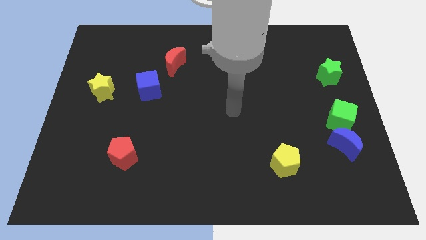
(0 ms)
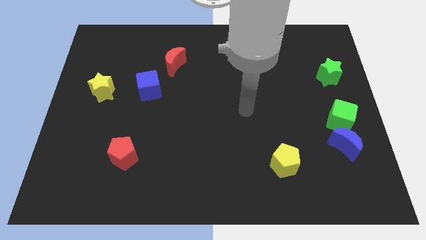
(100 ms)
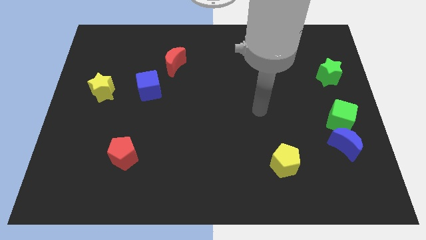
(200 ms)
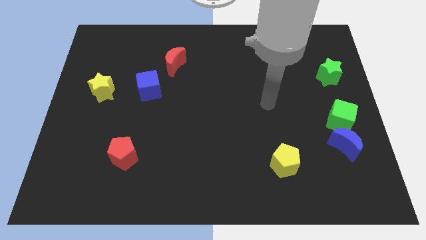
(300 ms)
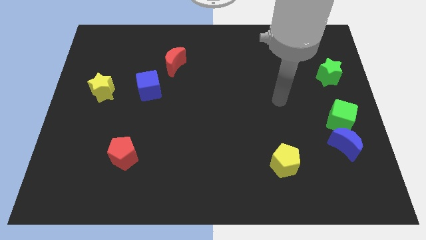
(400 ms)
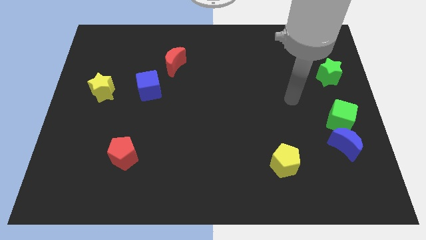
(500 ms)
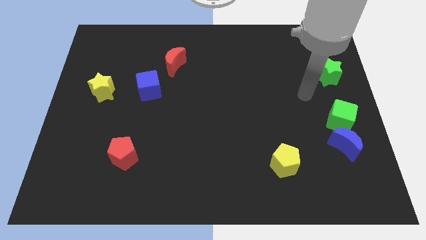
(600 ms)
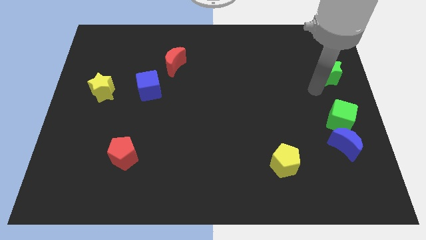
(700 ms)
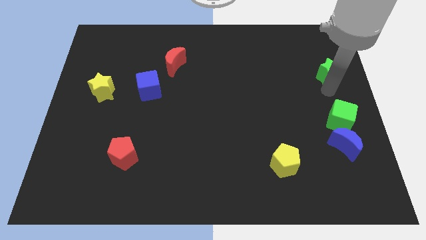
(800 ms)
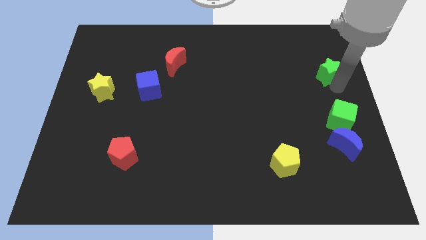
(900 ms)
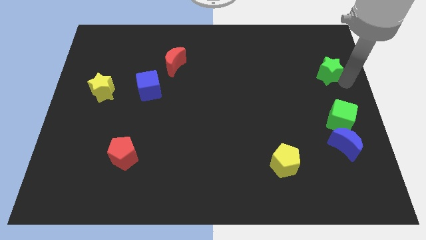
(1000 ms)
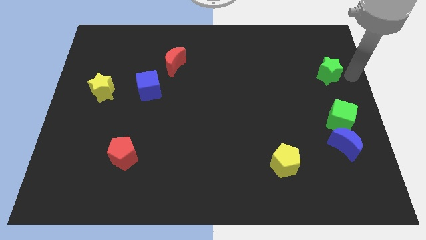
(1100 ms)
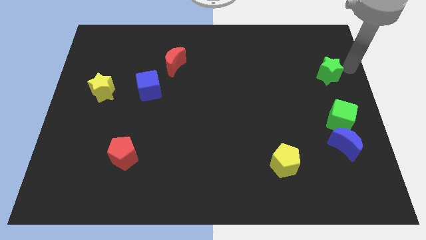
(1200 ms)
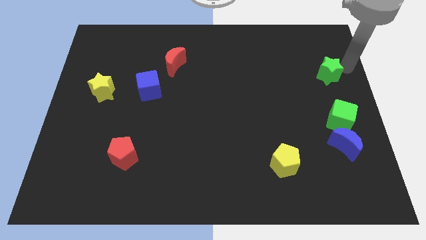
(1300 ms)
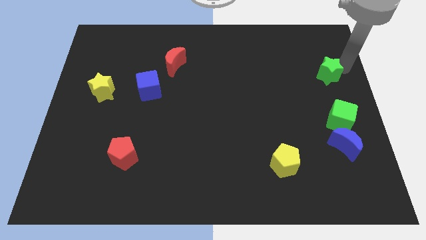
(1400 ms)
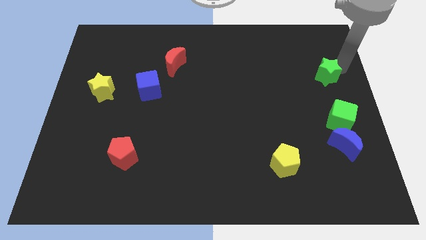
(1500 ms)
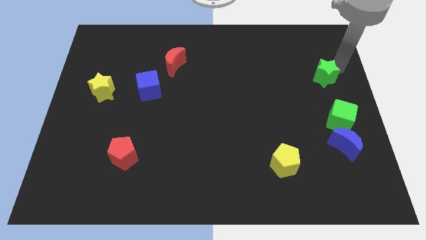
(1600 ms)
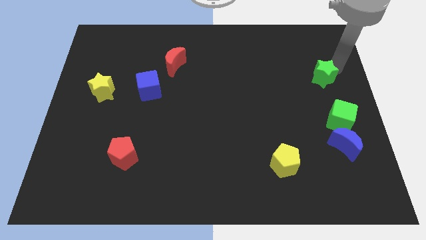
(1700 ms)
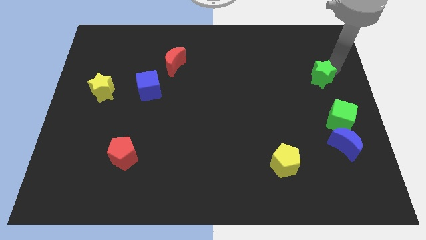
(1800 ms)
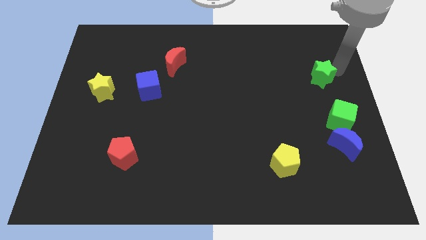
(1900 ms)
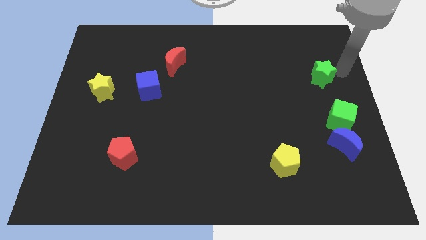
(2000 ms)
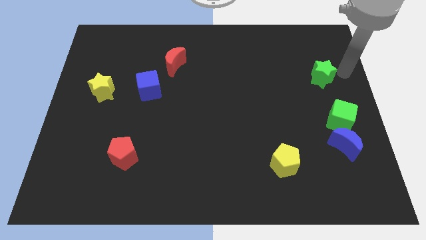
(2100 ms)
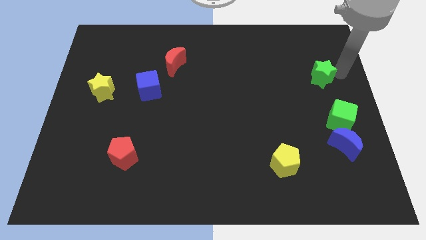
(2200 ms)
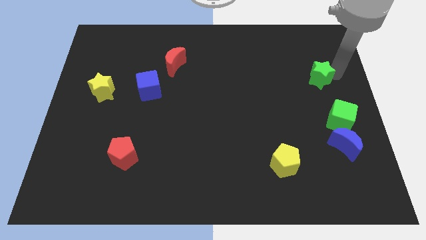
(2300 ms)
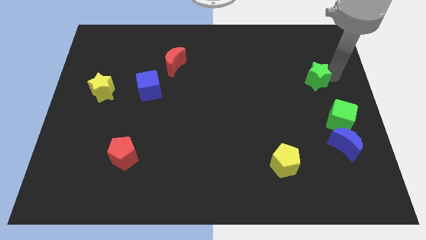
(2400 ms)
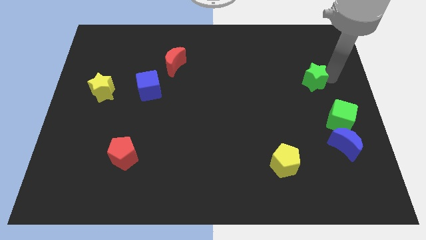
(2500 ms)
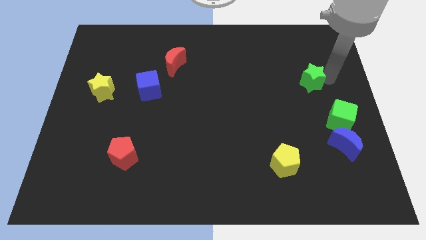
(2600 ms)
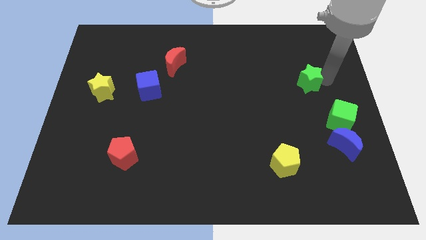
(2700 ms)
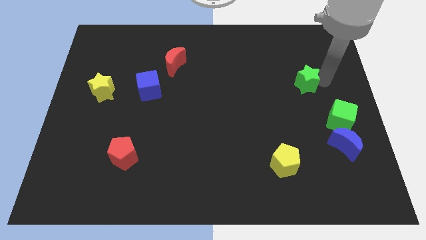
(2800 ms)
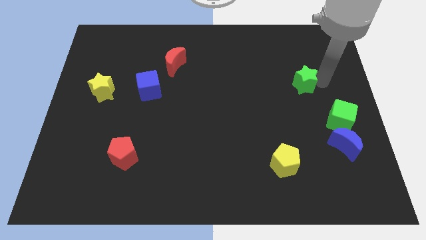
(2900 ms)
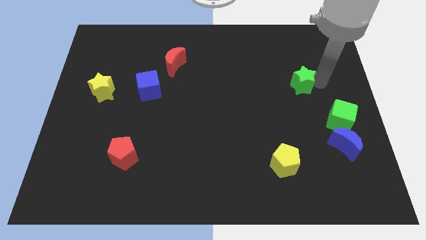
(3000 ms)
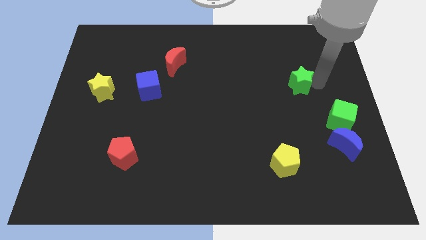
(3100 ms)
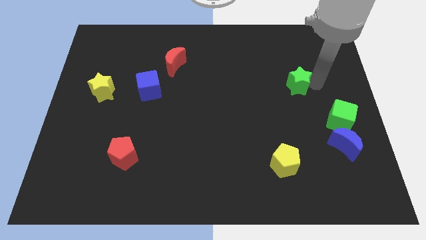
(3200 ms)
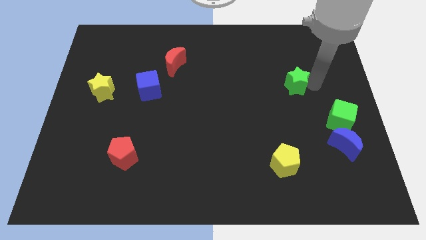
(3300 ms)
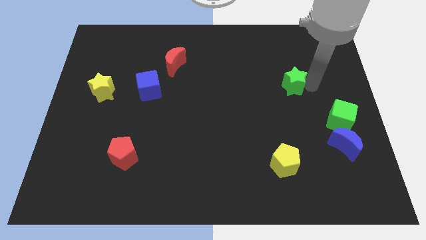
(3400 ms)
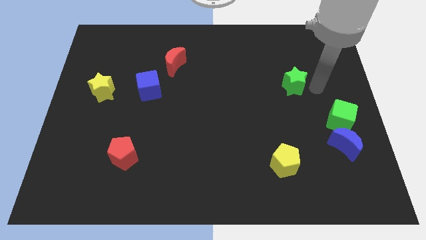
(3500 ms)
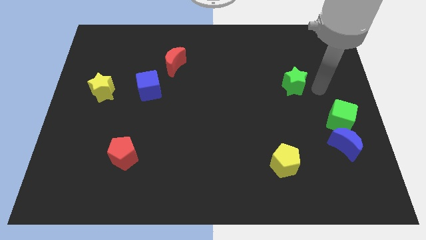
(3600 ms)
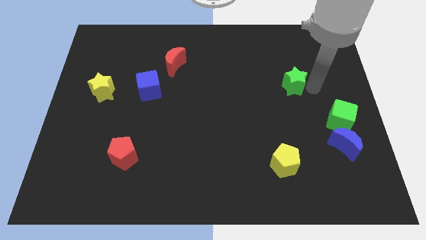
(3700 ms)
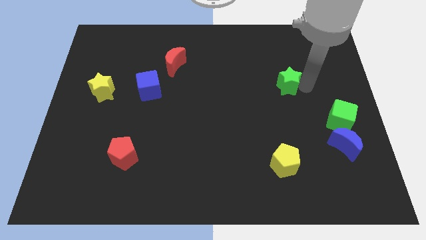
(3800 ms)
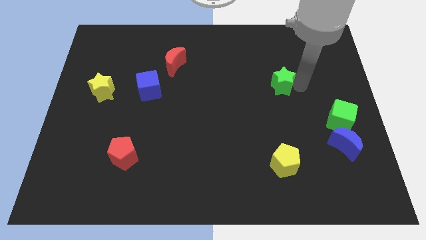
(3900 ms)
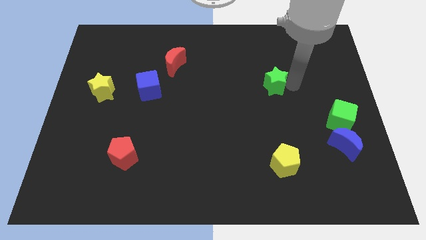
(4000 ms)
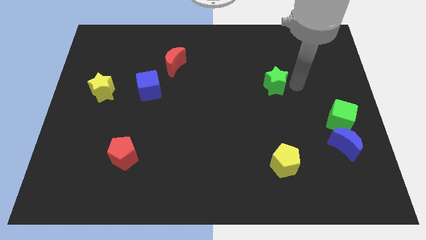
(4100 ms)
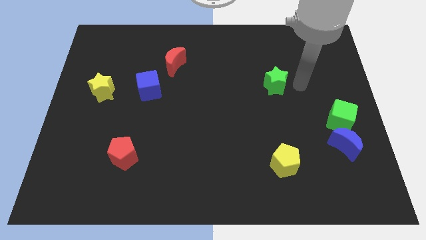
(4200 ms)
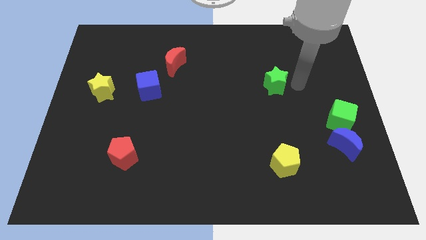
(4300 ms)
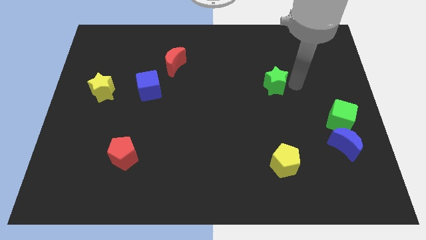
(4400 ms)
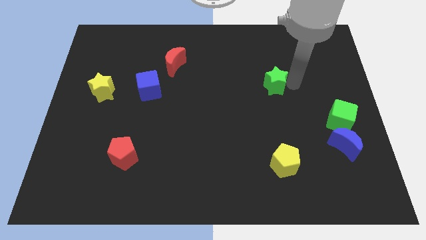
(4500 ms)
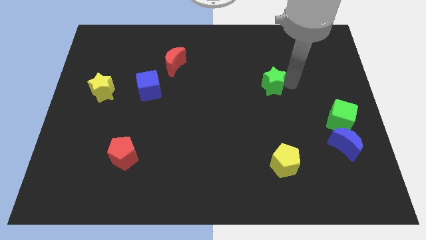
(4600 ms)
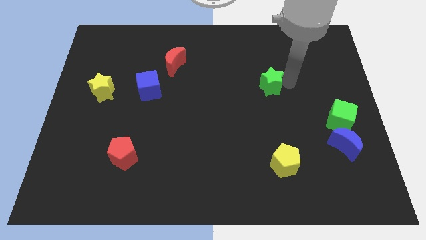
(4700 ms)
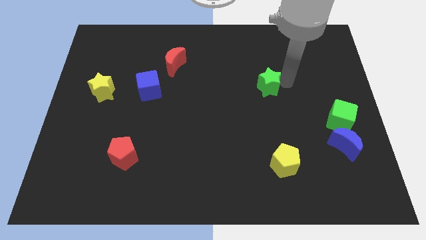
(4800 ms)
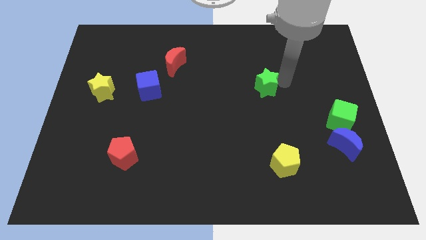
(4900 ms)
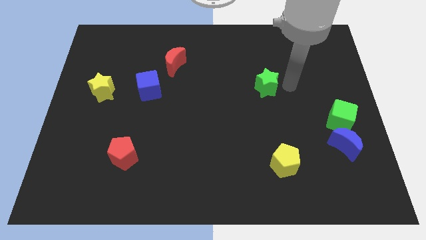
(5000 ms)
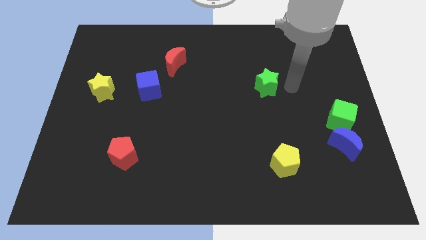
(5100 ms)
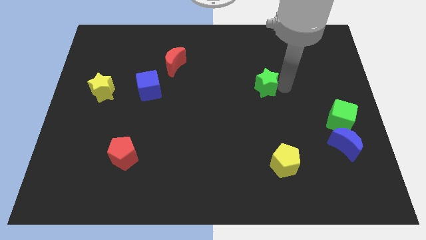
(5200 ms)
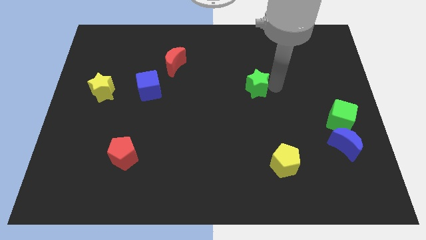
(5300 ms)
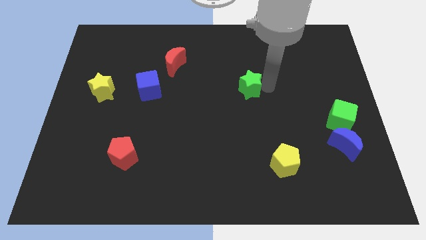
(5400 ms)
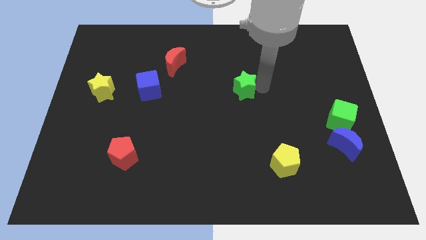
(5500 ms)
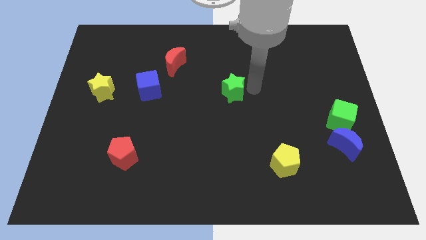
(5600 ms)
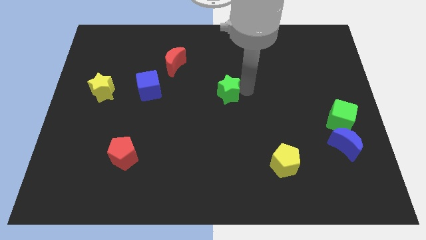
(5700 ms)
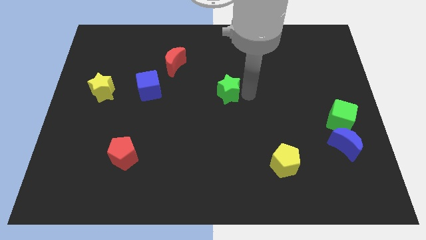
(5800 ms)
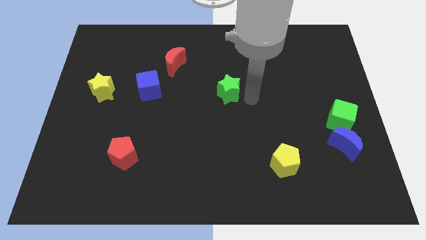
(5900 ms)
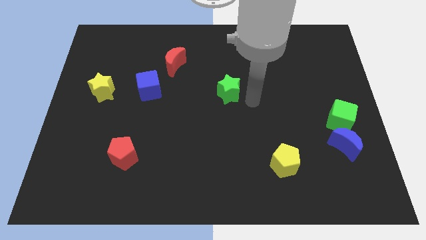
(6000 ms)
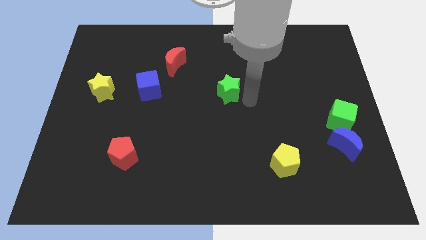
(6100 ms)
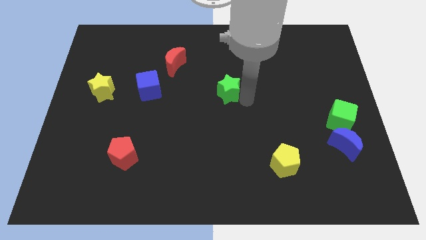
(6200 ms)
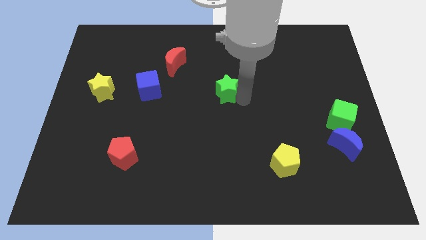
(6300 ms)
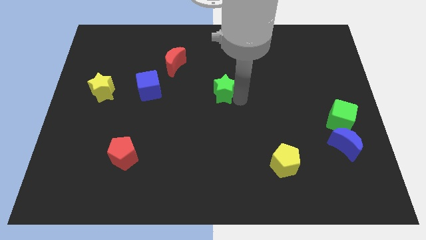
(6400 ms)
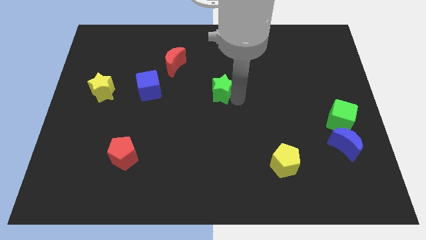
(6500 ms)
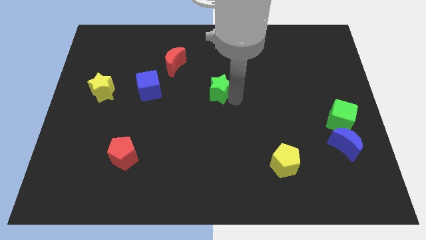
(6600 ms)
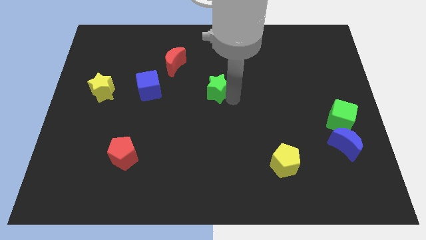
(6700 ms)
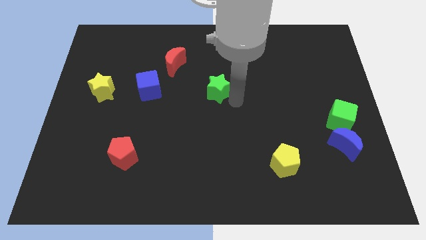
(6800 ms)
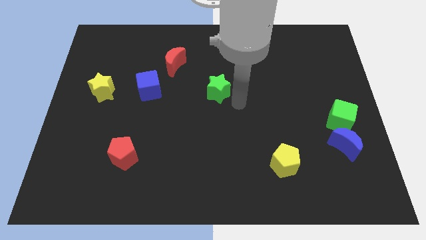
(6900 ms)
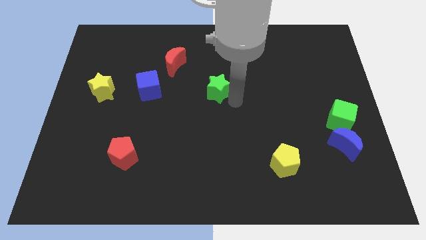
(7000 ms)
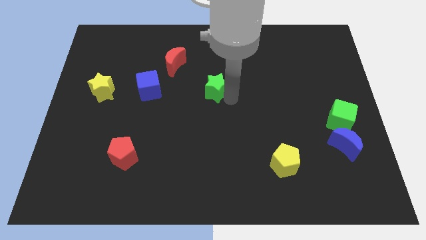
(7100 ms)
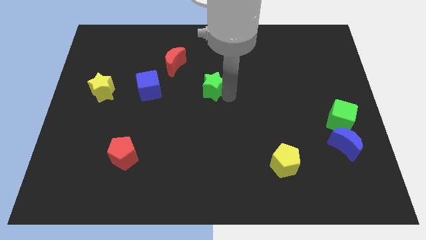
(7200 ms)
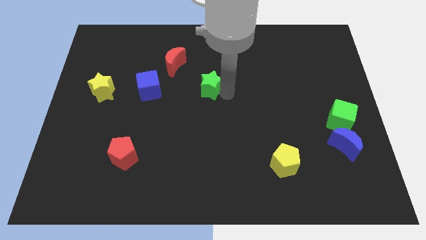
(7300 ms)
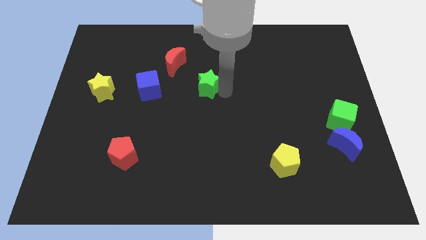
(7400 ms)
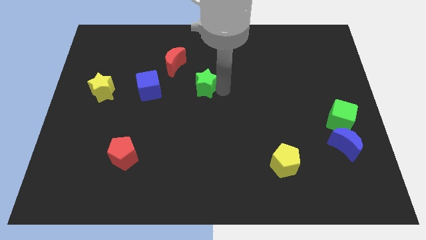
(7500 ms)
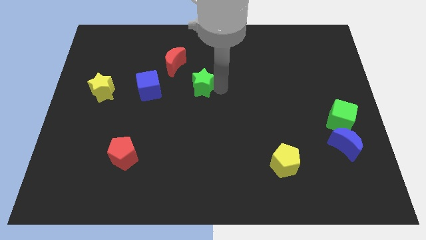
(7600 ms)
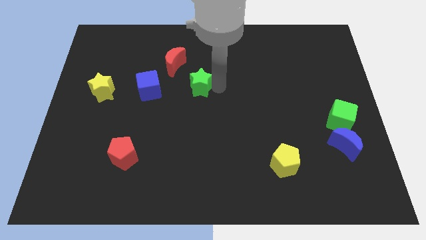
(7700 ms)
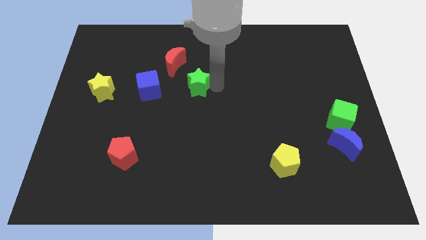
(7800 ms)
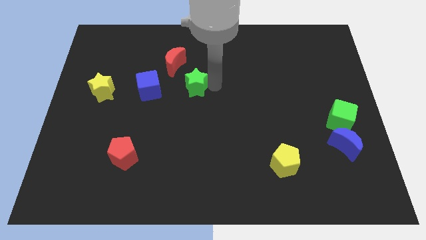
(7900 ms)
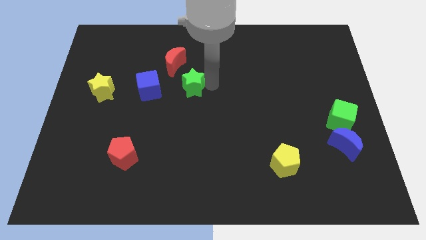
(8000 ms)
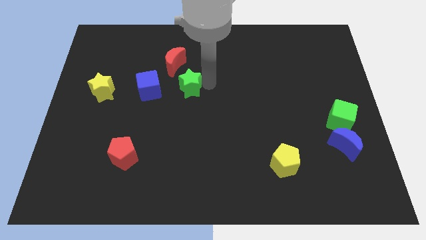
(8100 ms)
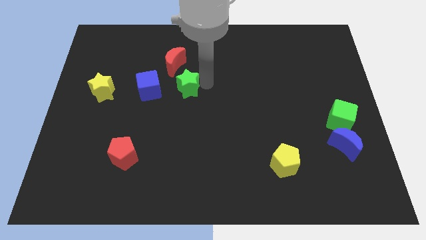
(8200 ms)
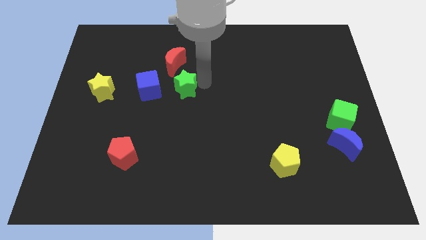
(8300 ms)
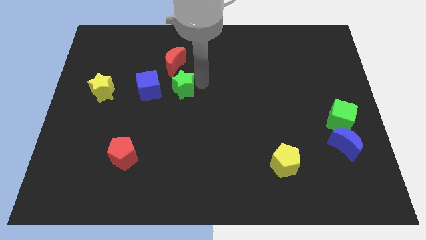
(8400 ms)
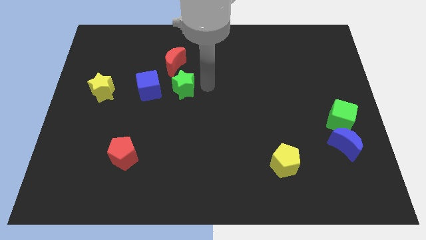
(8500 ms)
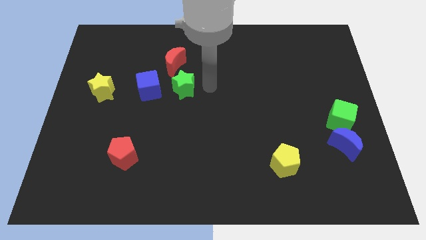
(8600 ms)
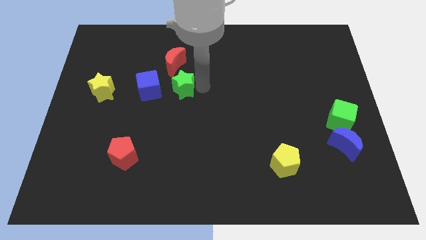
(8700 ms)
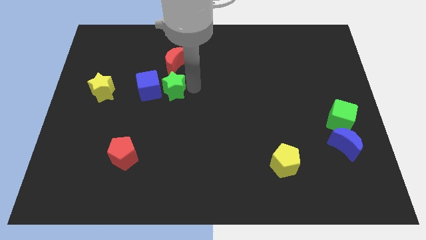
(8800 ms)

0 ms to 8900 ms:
put the green star towards the blue cube
